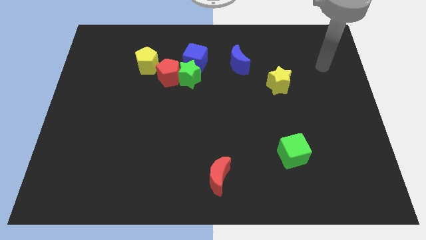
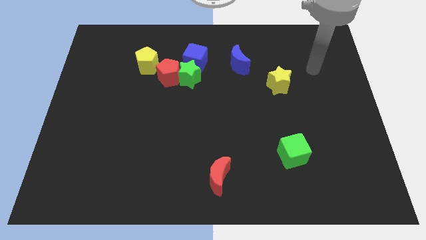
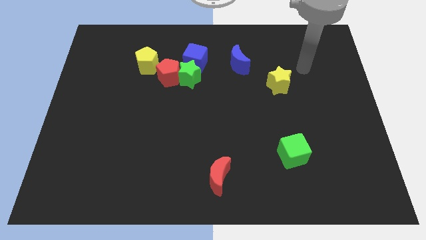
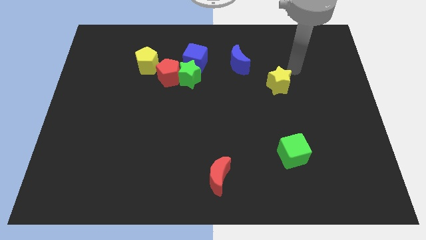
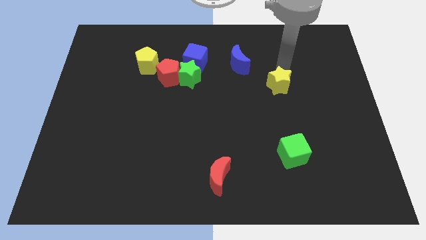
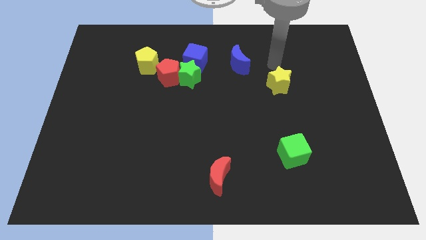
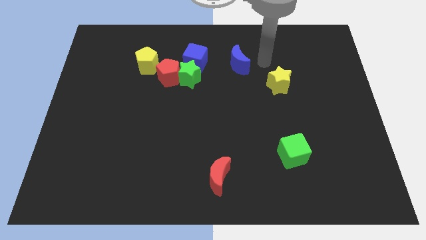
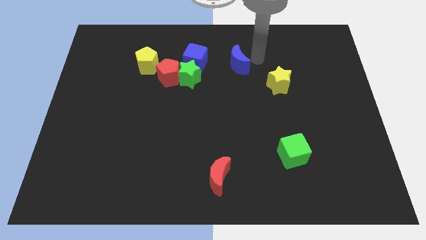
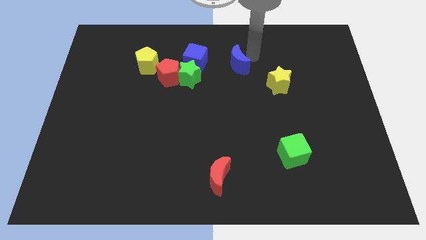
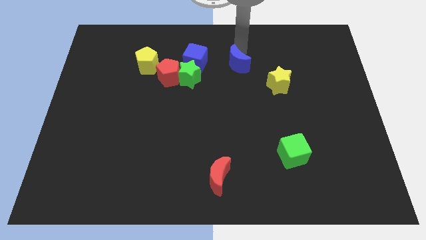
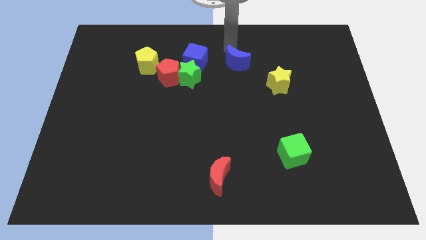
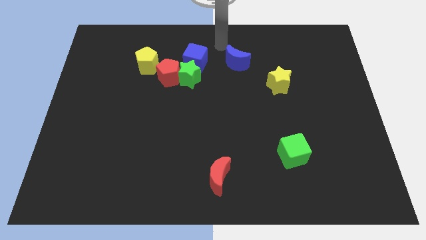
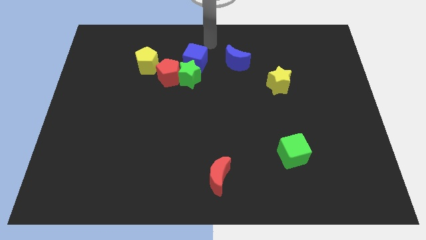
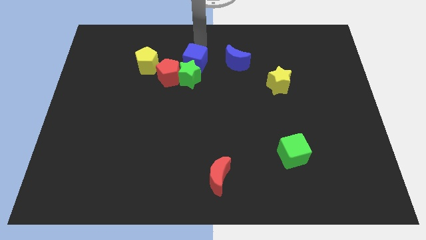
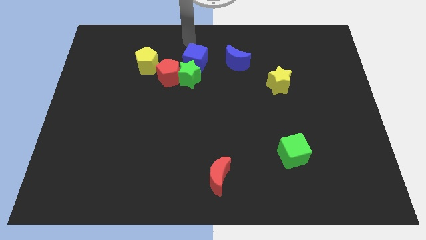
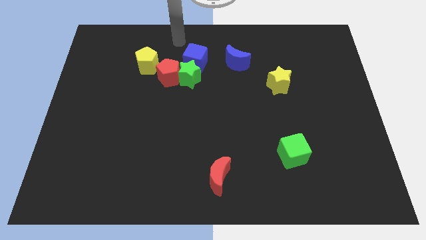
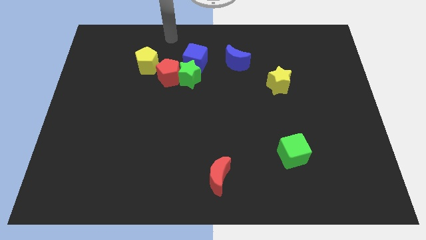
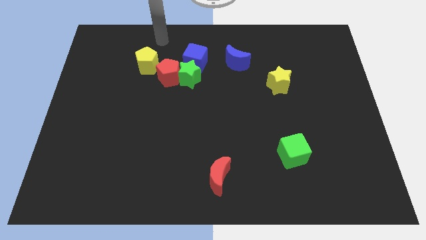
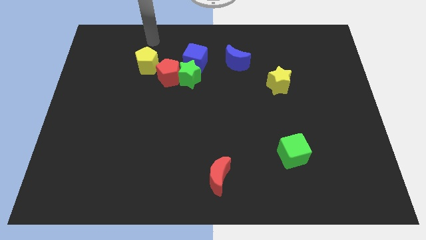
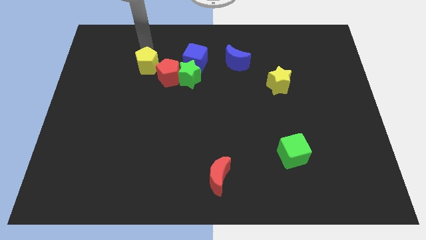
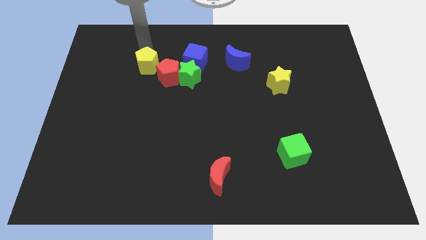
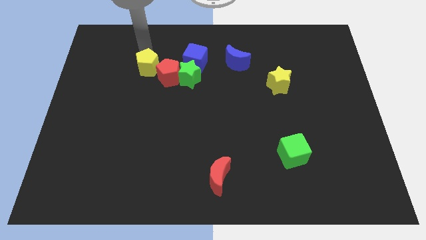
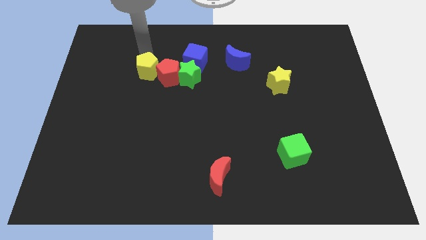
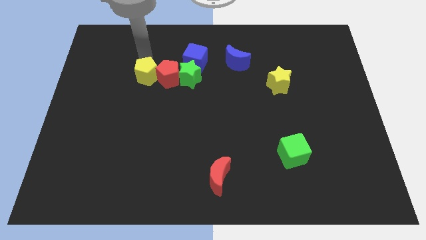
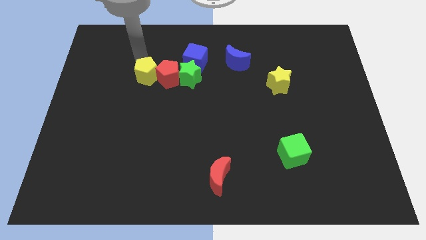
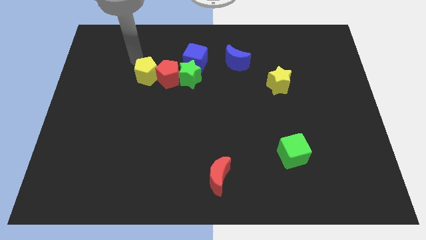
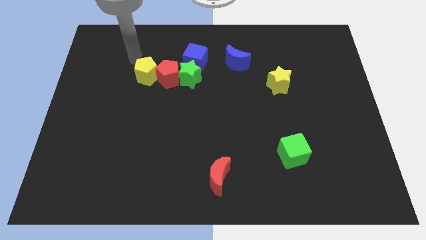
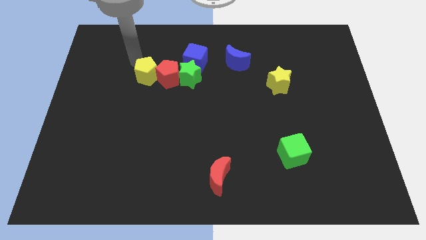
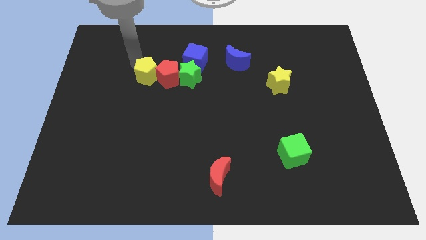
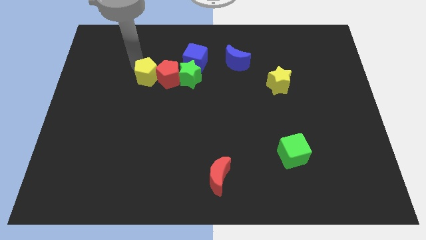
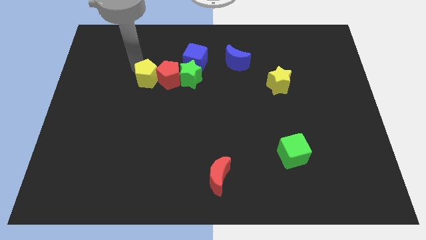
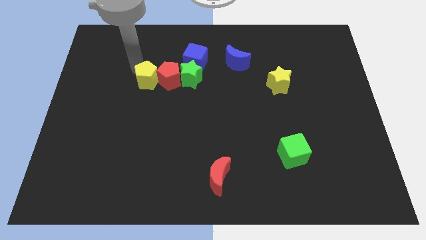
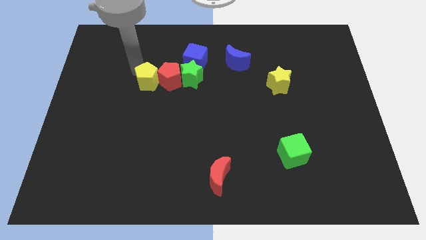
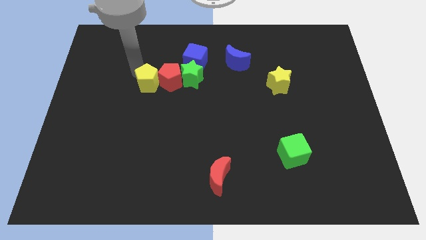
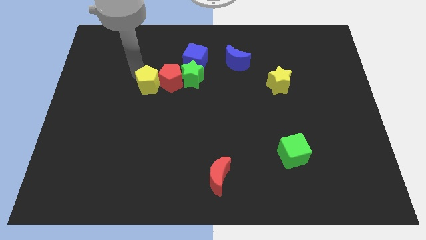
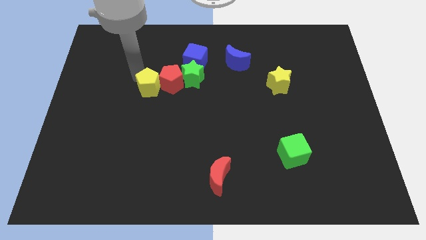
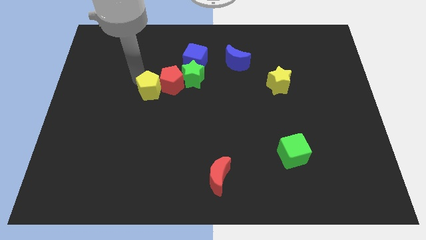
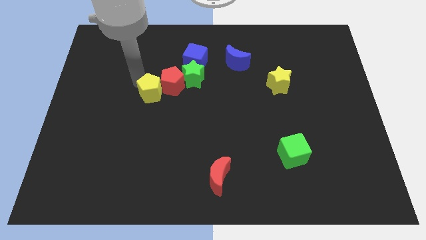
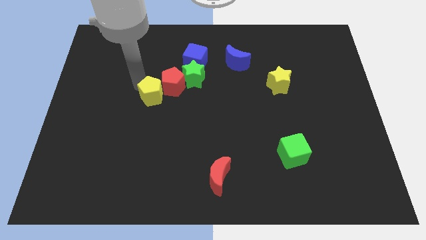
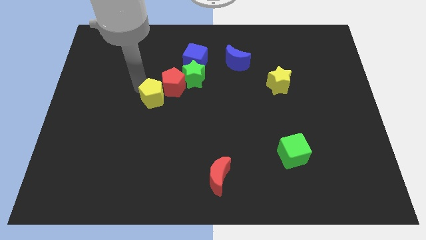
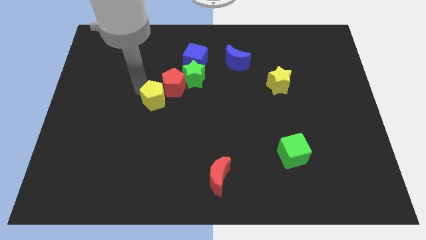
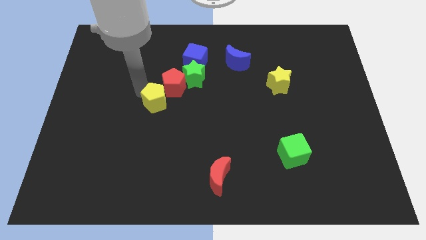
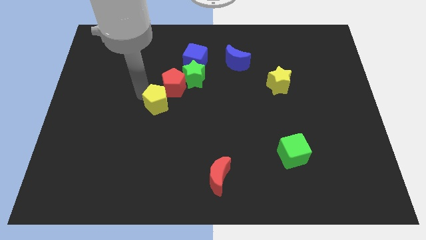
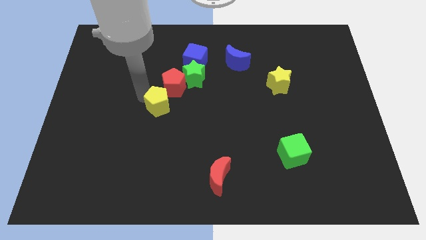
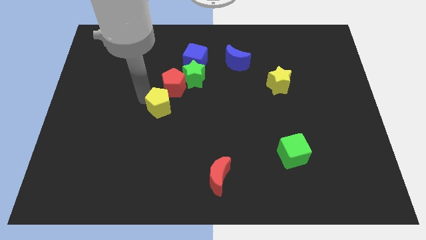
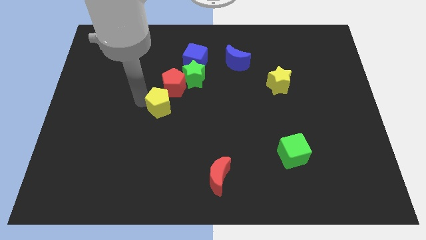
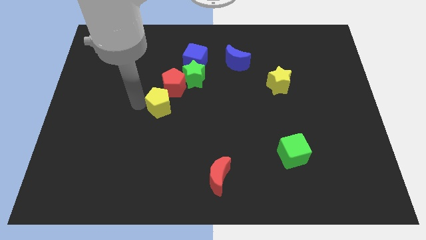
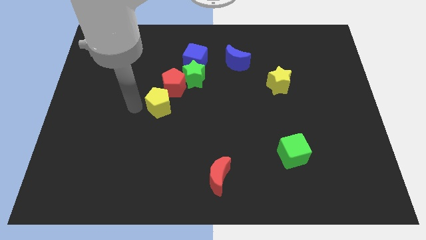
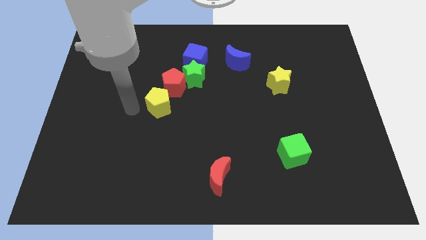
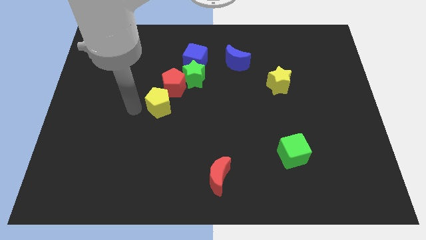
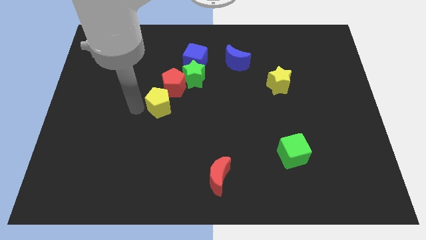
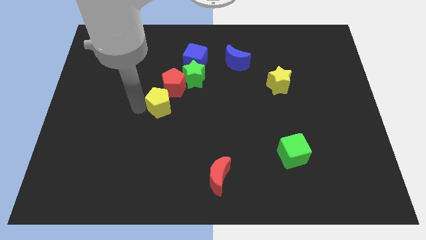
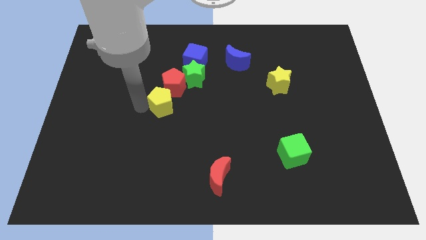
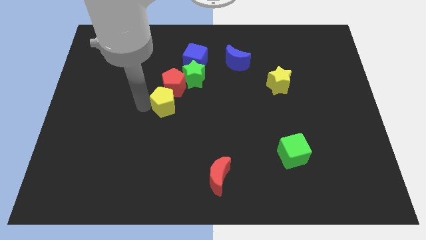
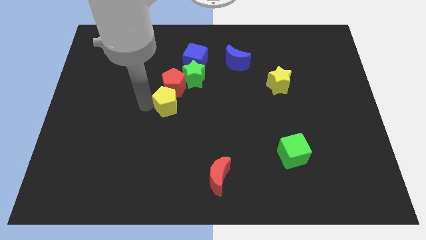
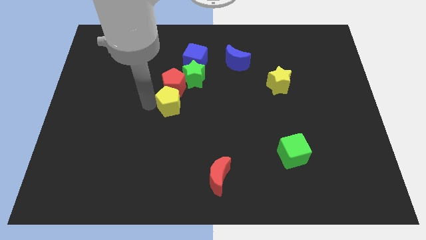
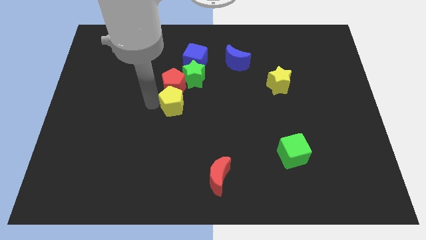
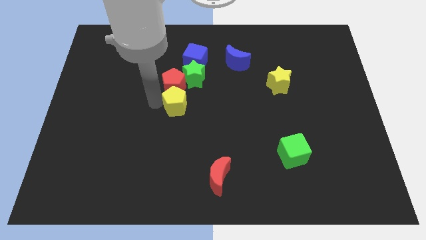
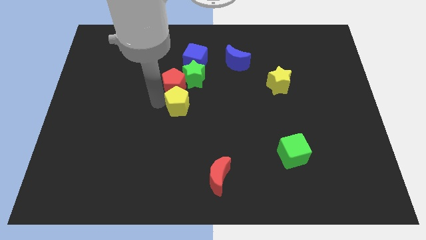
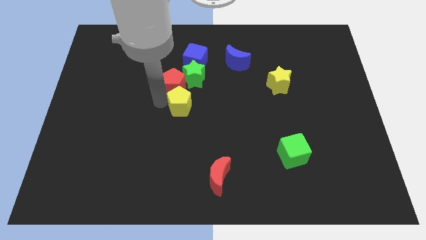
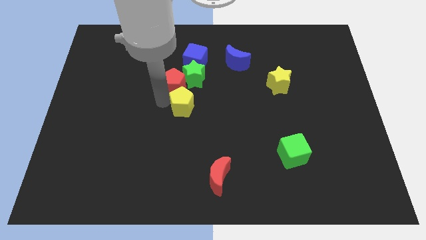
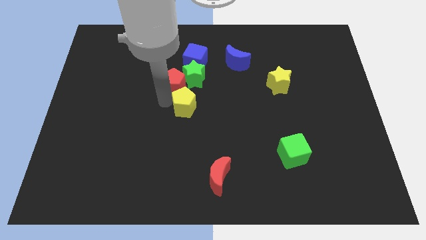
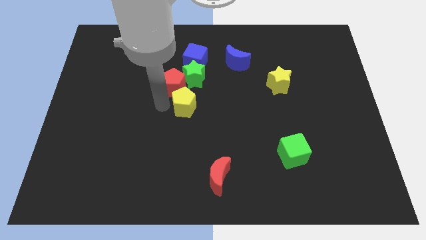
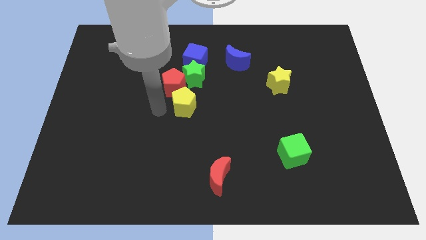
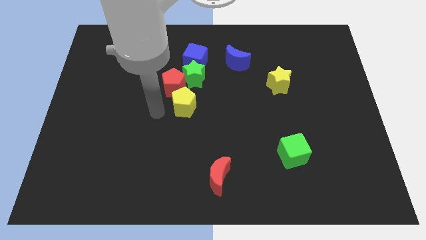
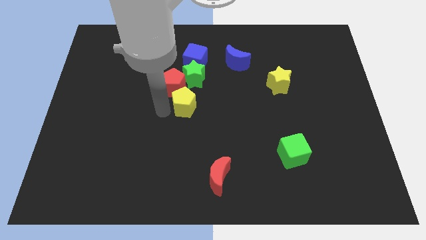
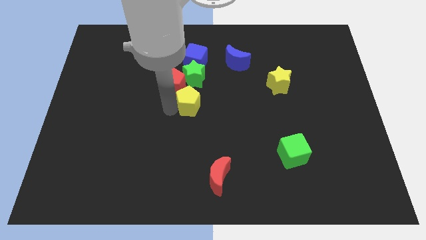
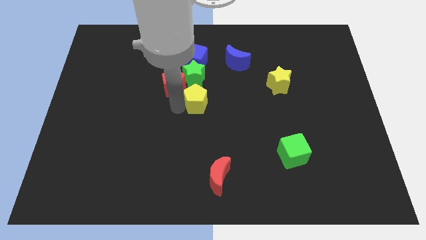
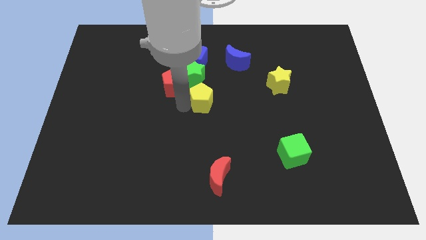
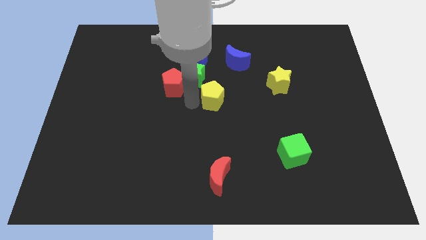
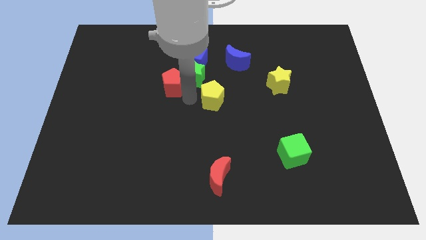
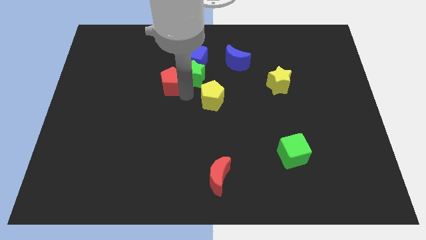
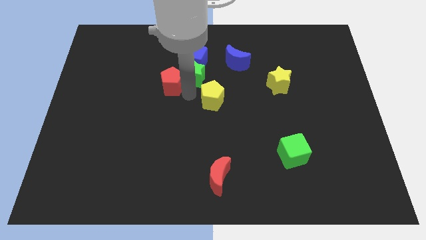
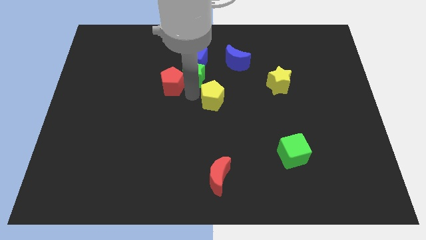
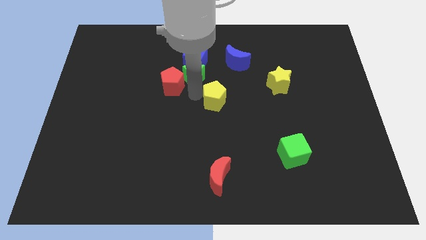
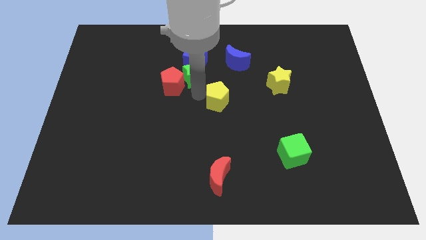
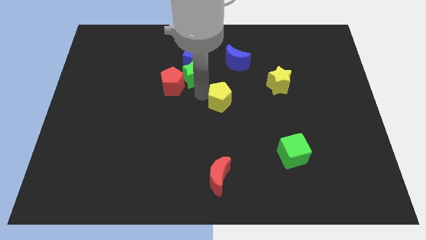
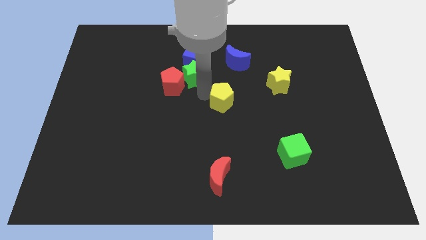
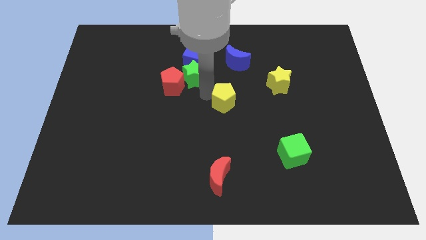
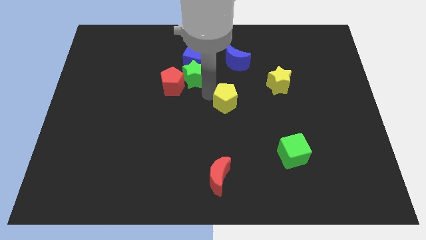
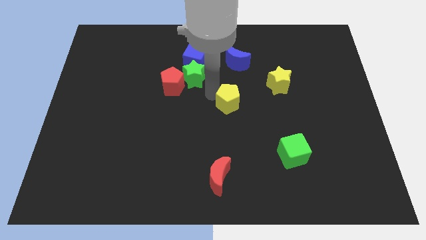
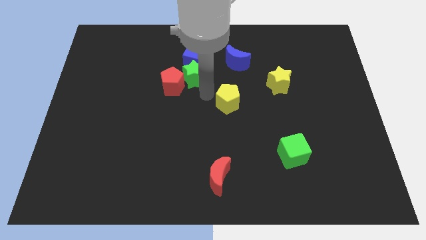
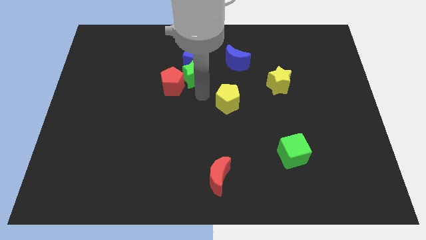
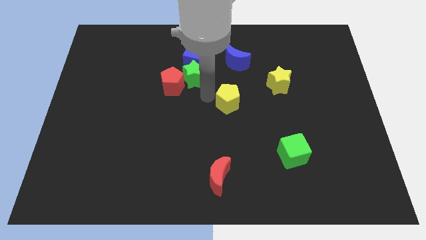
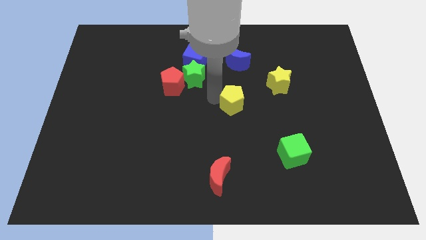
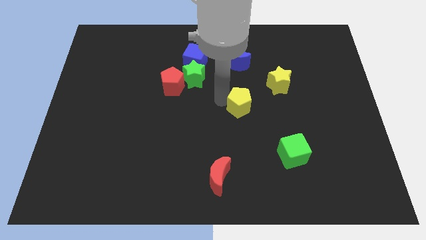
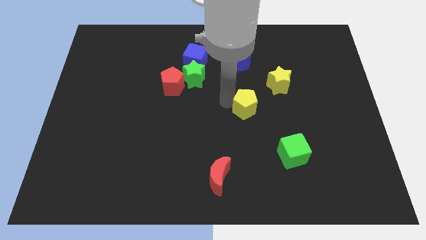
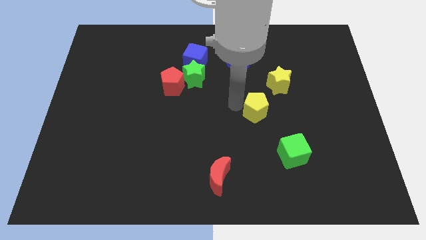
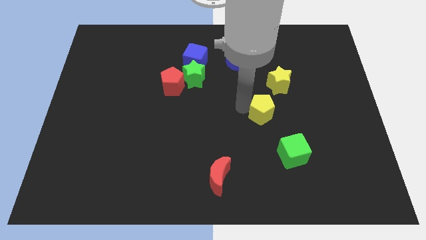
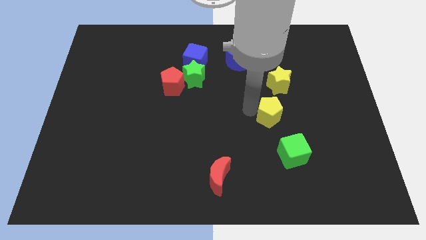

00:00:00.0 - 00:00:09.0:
push the yellow pentagon to the top side of the green cube
